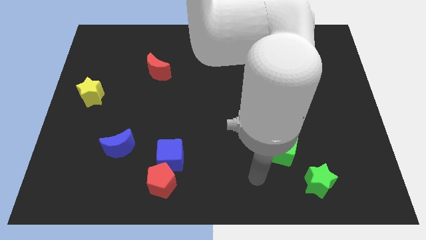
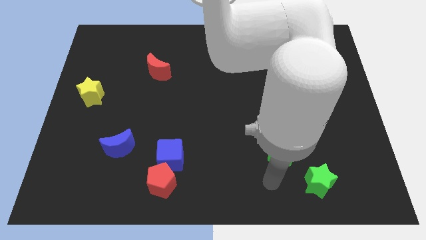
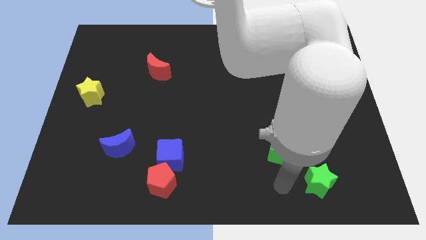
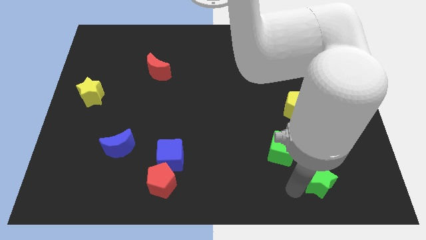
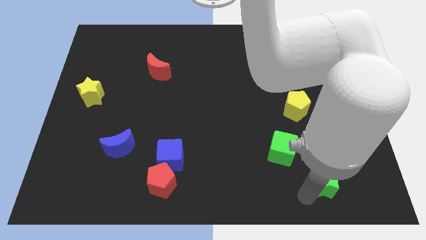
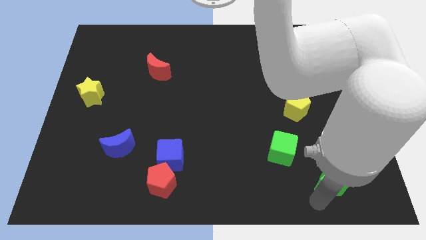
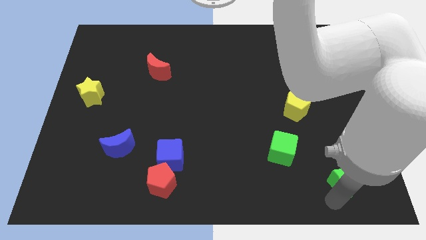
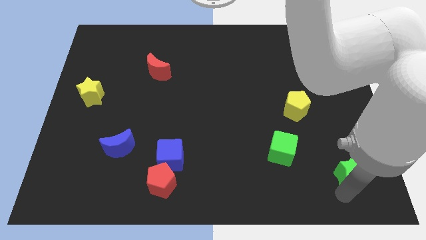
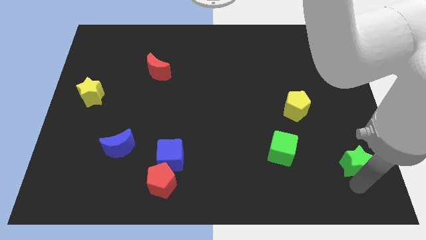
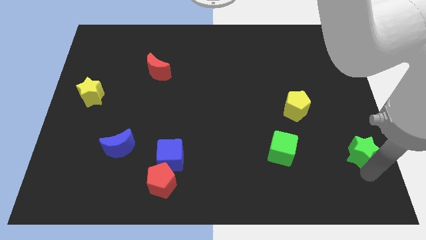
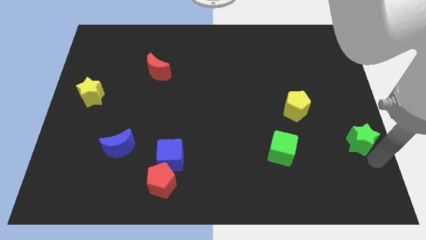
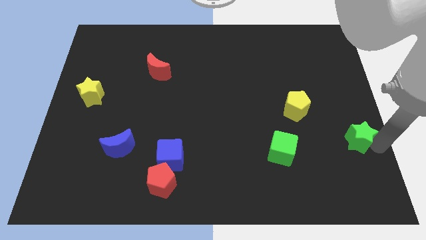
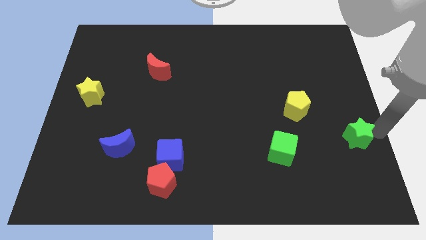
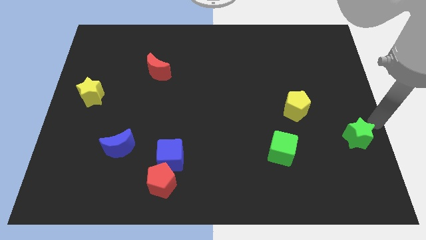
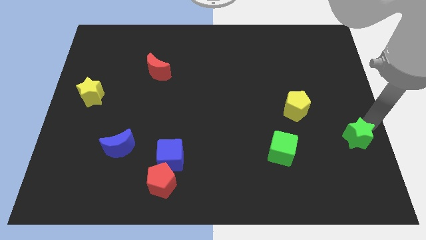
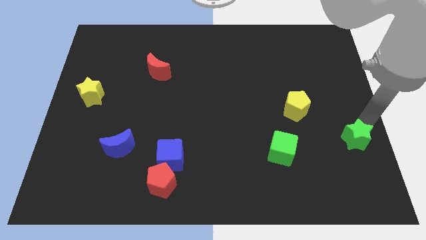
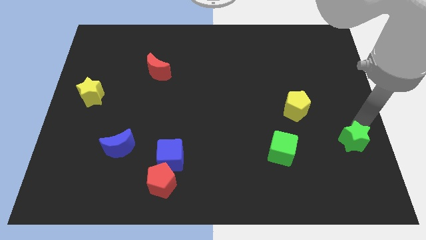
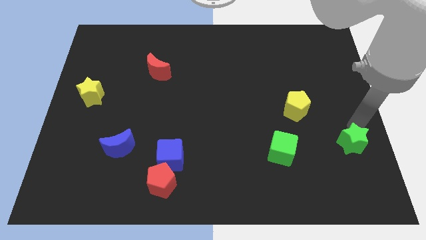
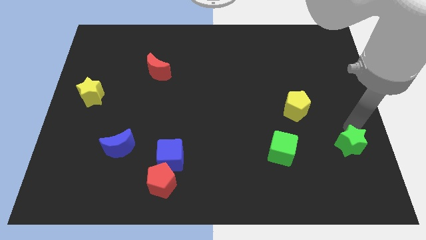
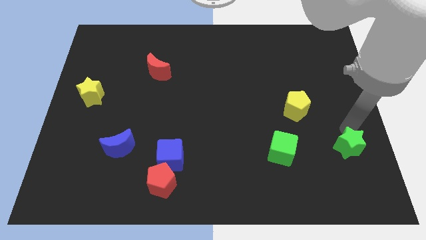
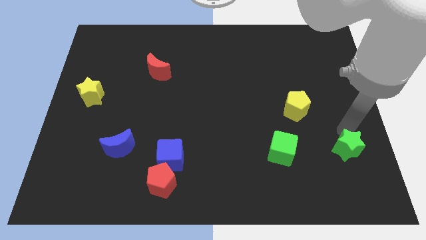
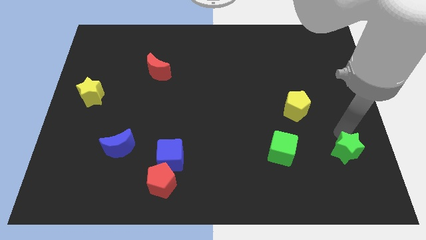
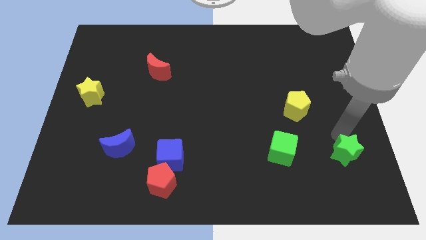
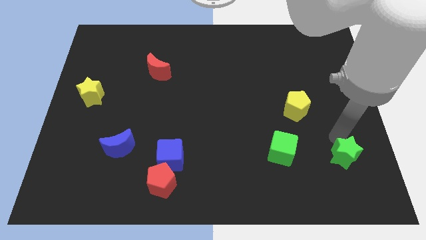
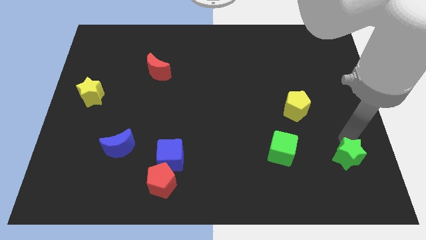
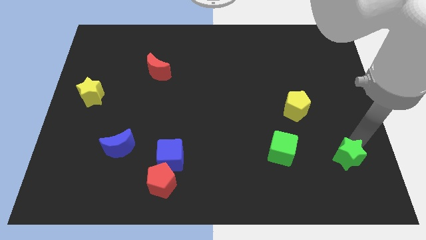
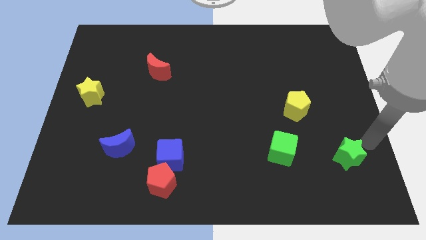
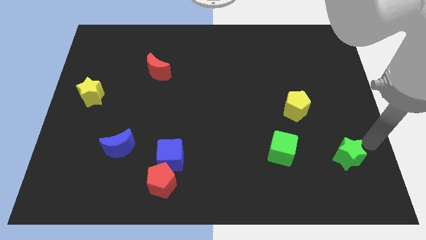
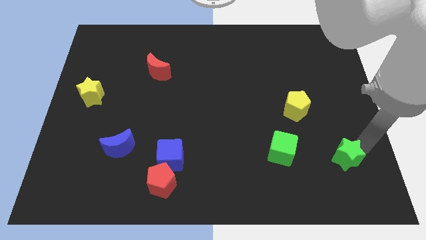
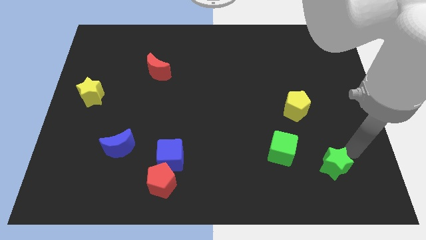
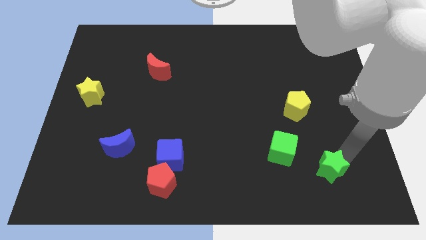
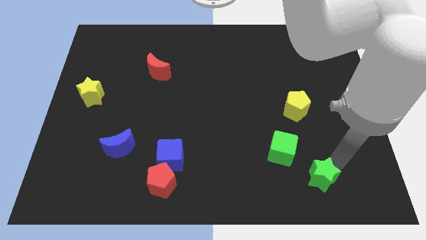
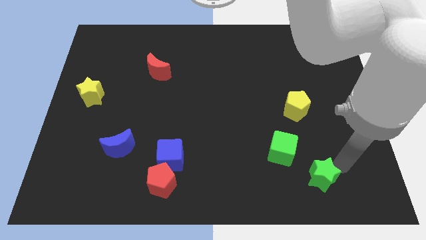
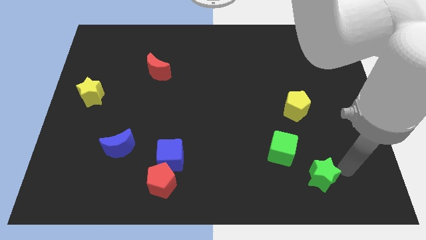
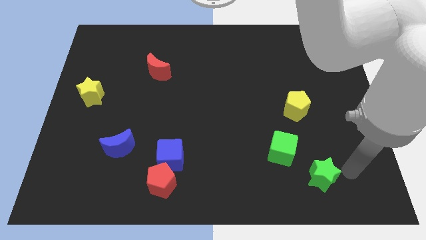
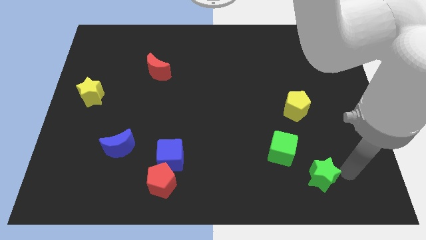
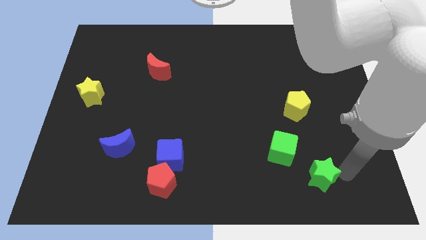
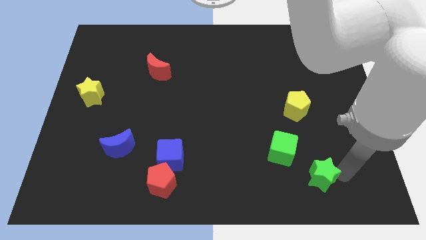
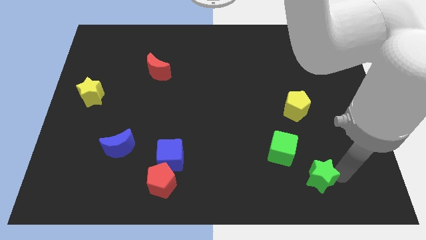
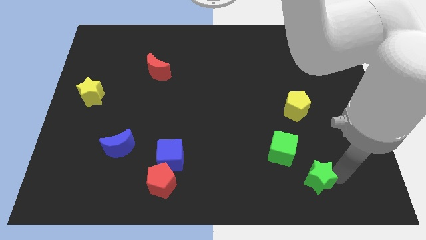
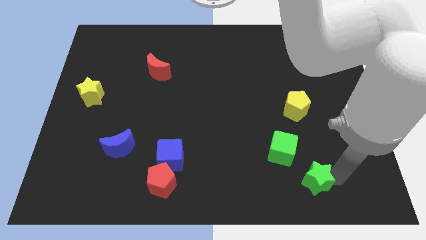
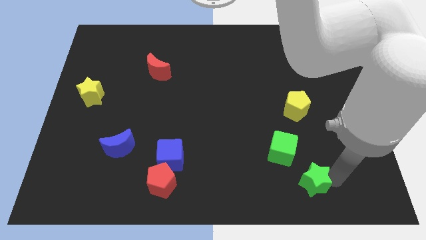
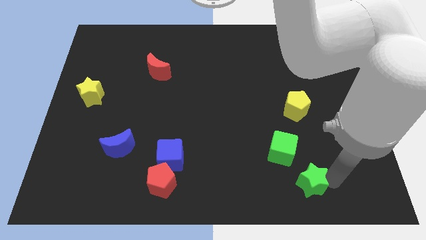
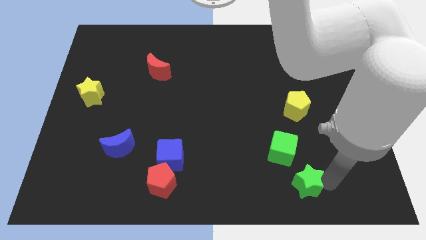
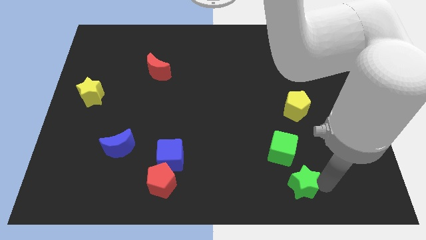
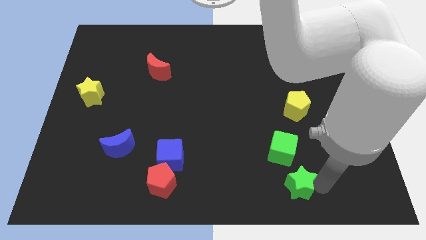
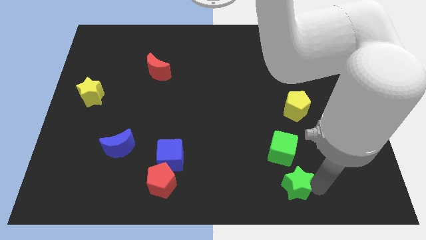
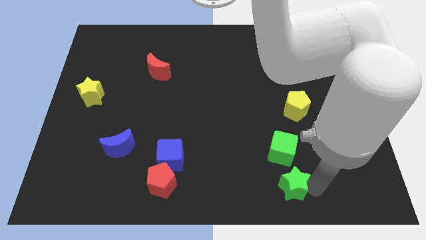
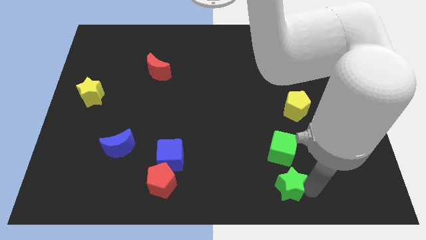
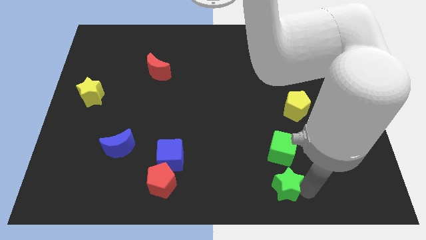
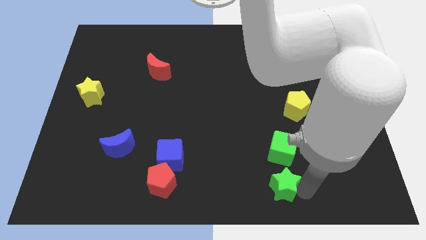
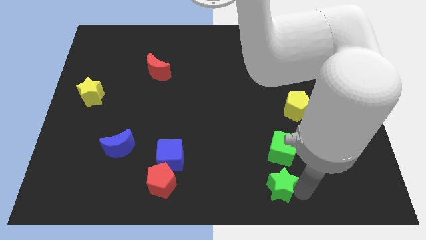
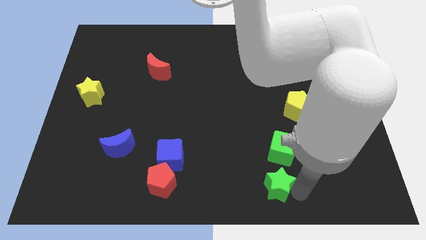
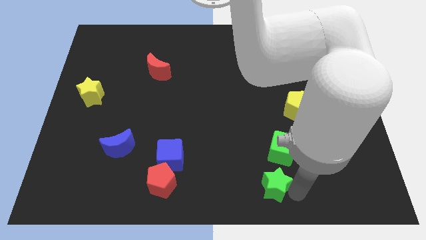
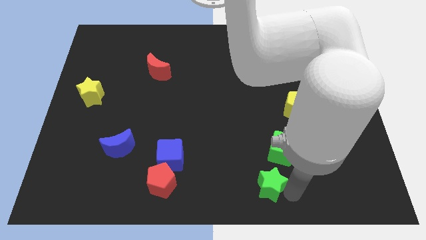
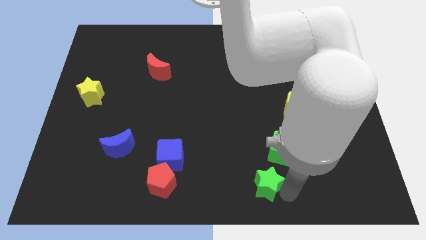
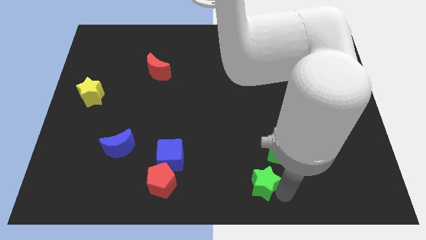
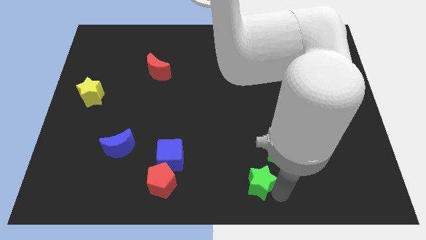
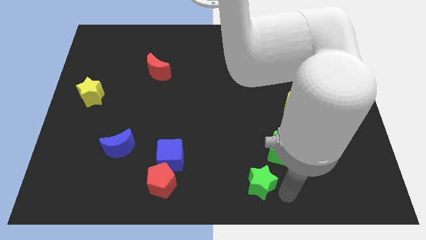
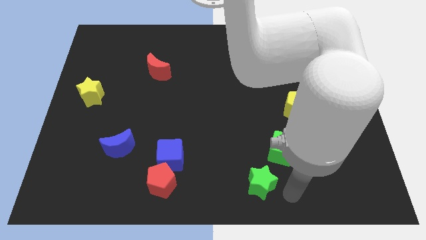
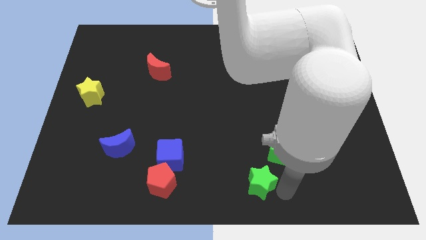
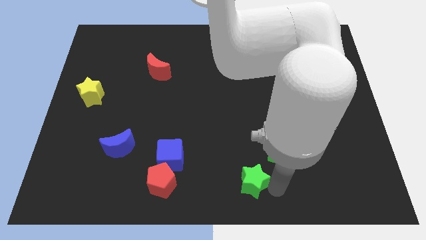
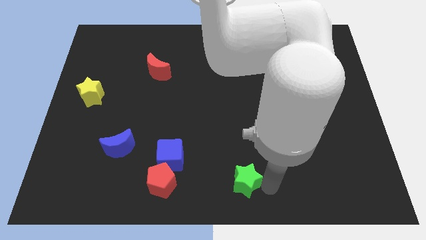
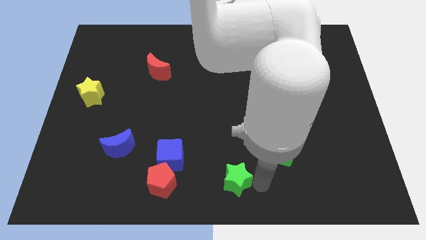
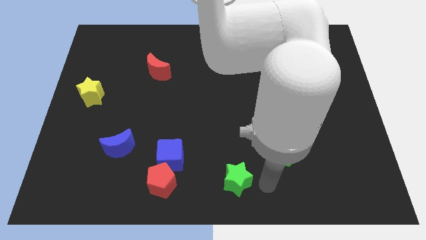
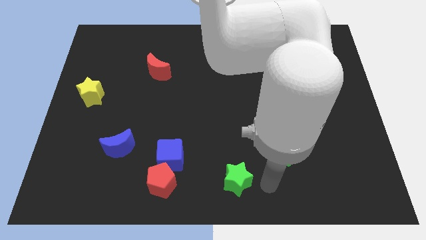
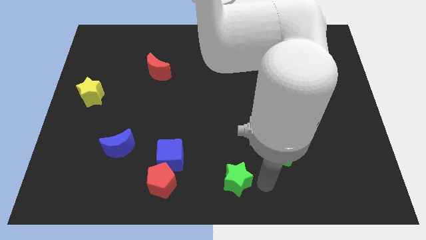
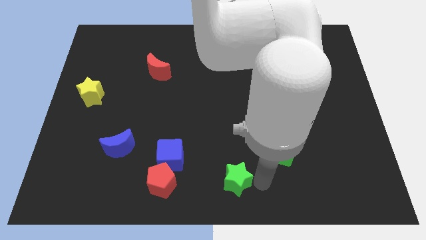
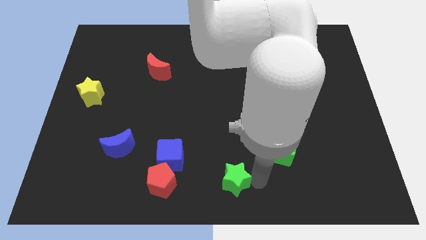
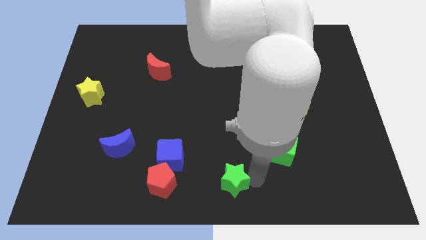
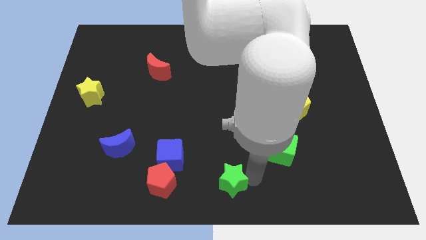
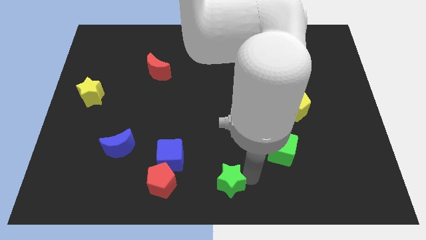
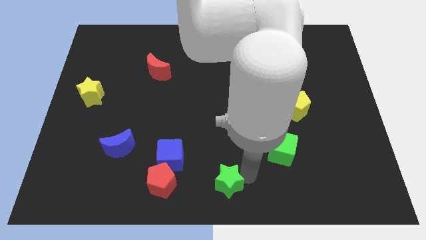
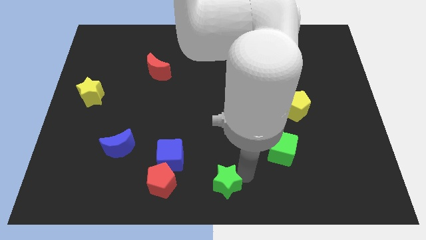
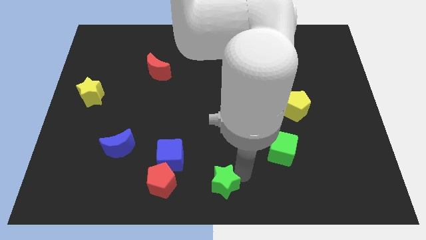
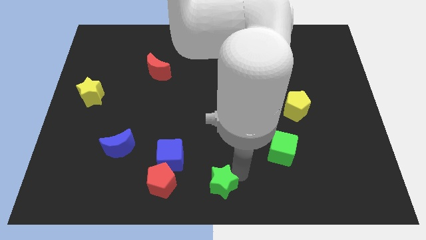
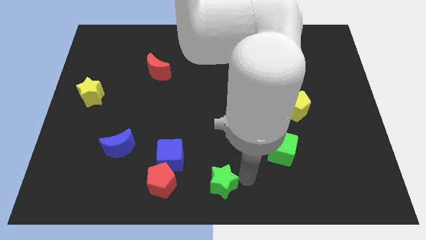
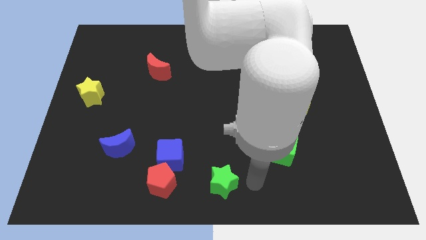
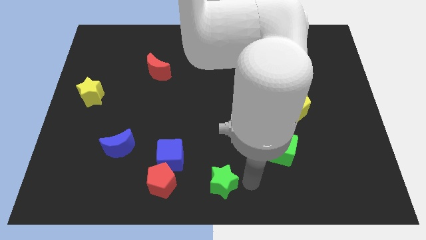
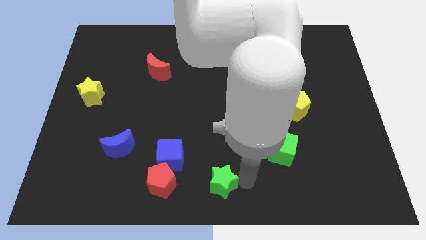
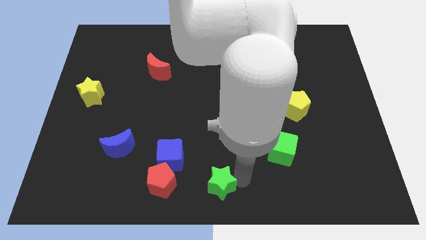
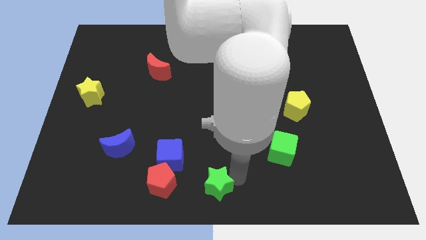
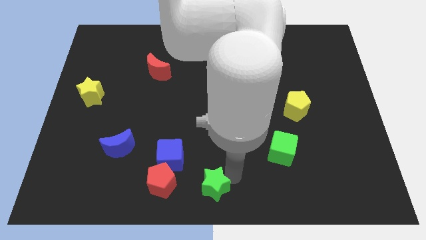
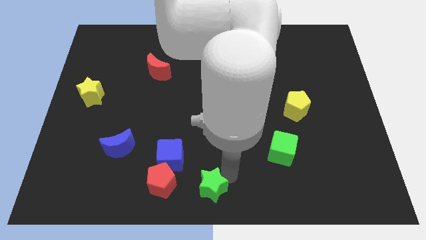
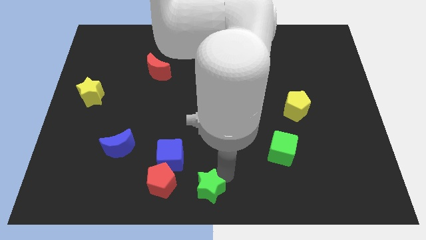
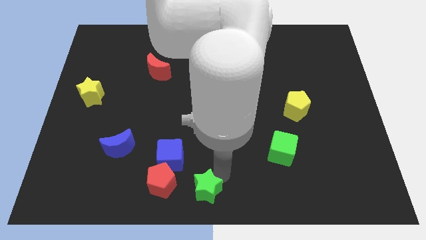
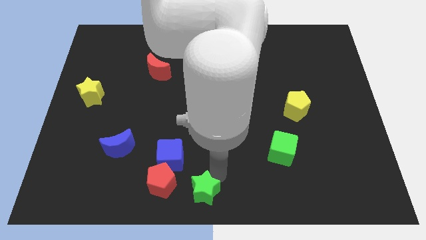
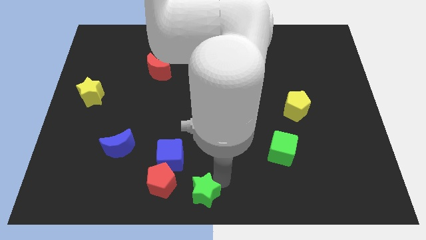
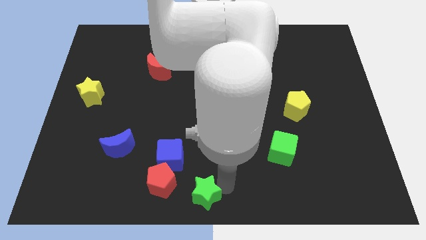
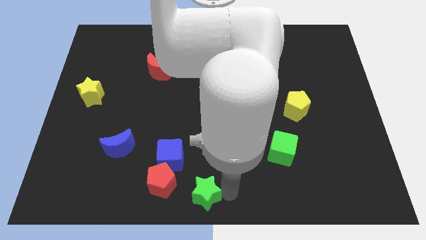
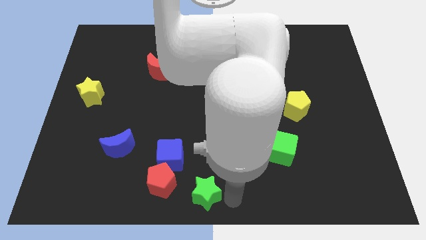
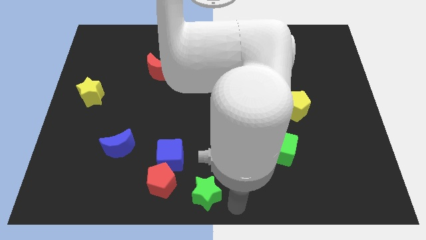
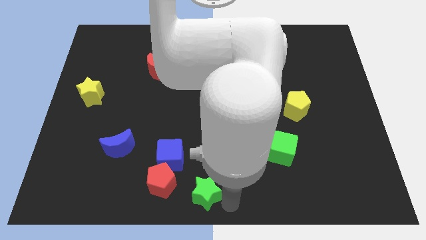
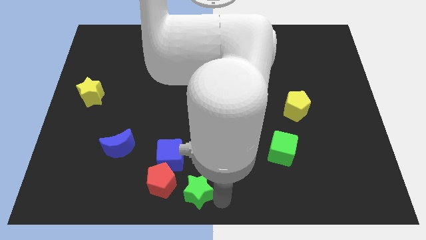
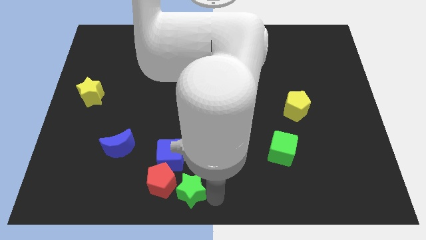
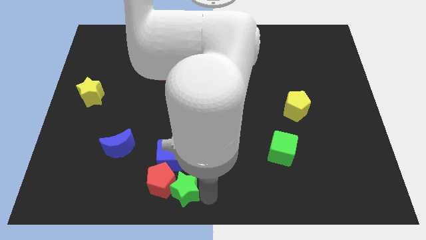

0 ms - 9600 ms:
put the green star towards the red pentagon
